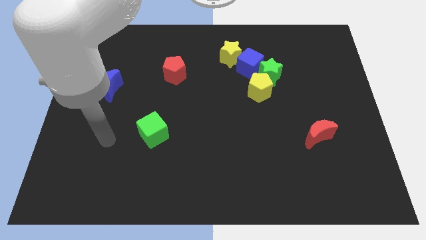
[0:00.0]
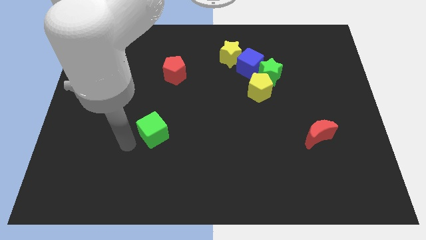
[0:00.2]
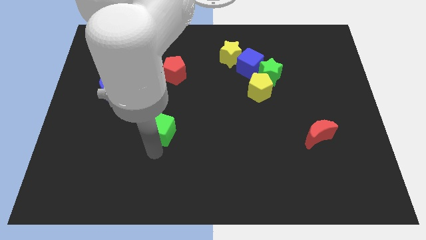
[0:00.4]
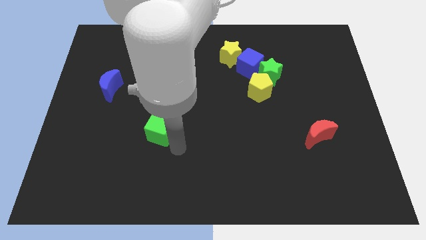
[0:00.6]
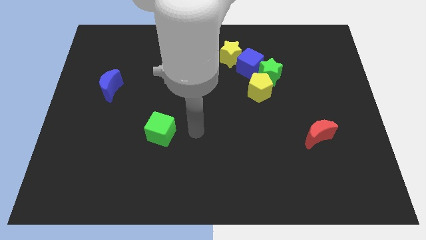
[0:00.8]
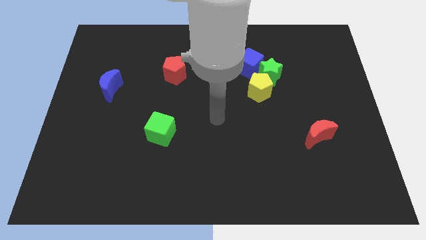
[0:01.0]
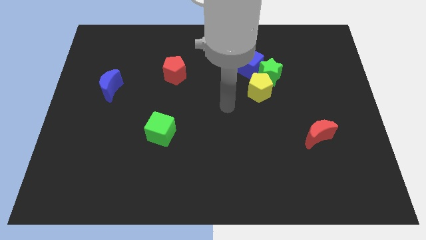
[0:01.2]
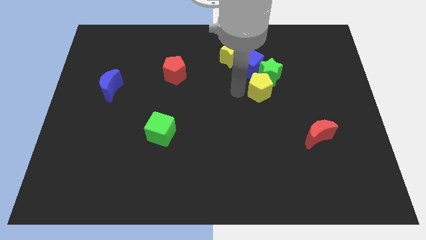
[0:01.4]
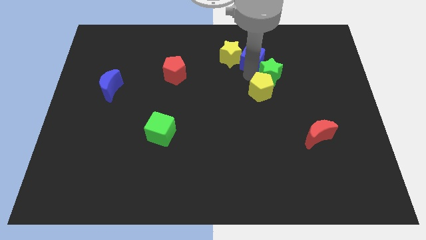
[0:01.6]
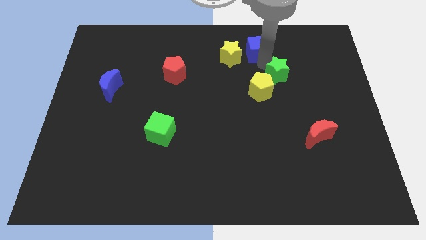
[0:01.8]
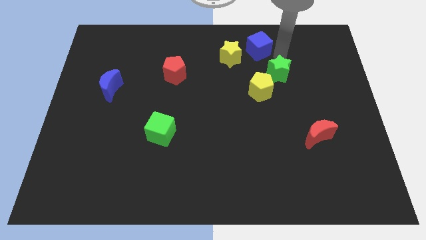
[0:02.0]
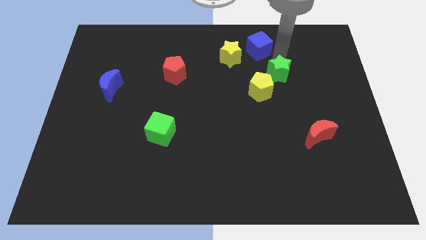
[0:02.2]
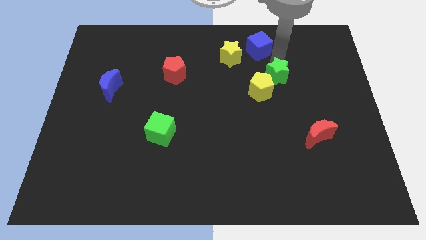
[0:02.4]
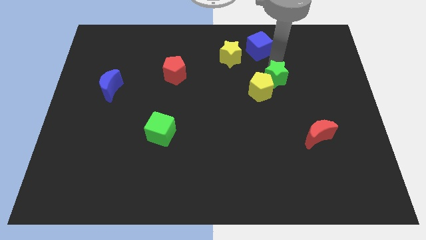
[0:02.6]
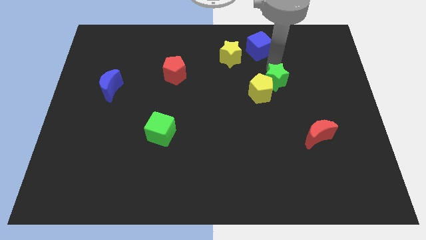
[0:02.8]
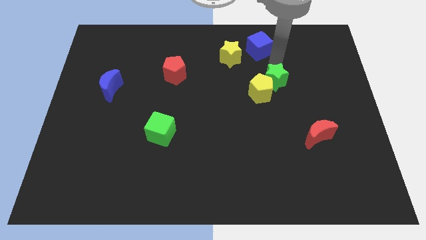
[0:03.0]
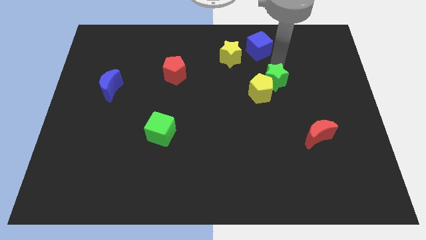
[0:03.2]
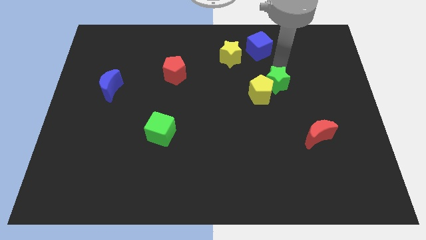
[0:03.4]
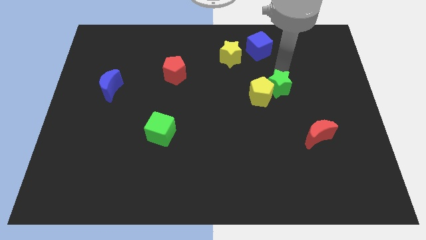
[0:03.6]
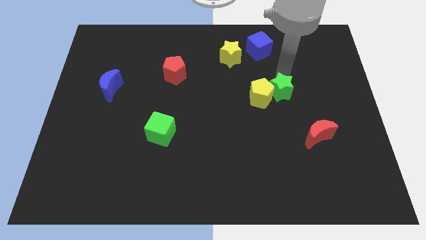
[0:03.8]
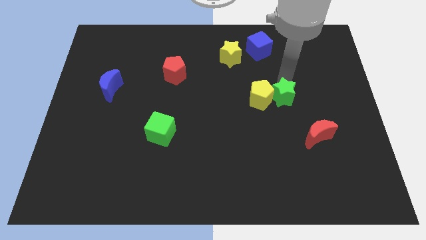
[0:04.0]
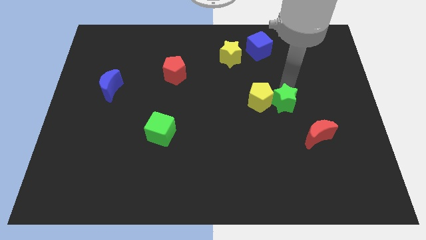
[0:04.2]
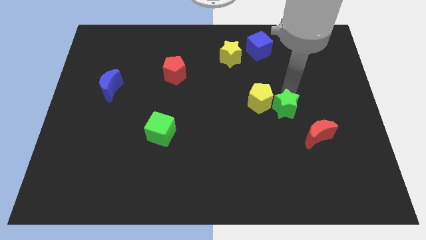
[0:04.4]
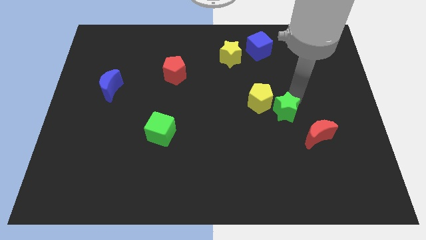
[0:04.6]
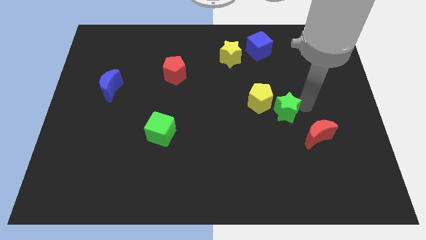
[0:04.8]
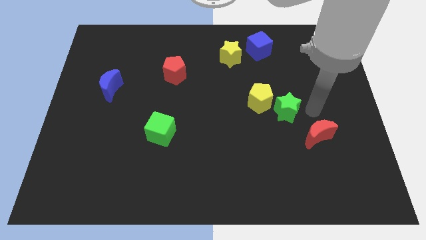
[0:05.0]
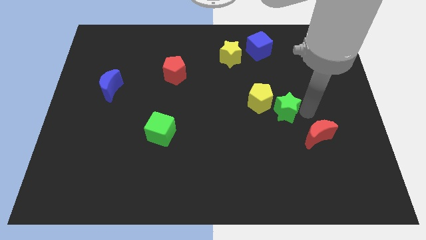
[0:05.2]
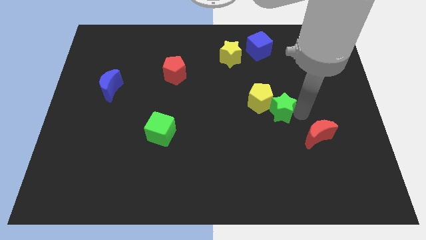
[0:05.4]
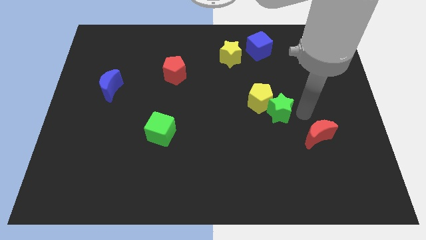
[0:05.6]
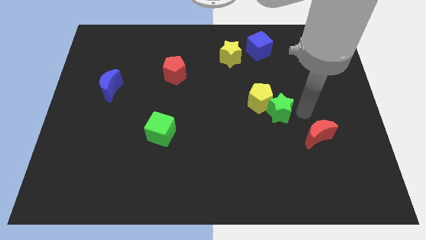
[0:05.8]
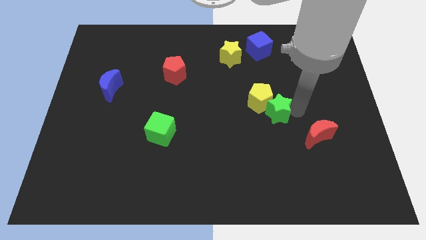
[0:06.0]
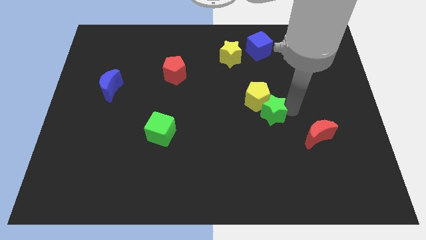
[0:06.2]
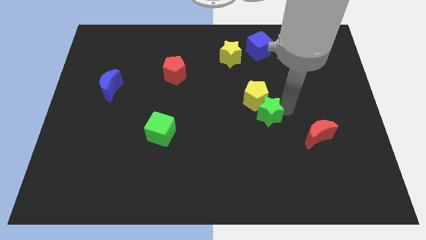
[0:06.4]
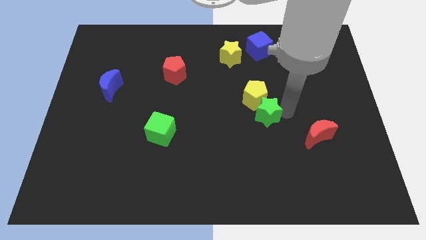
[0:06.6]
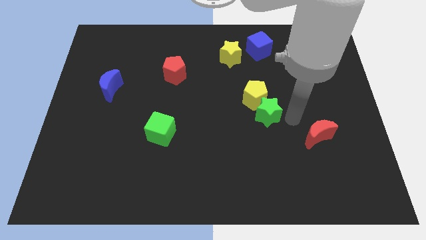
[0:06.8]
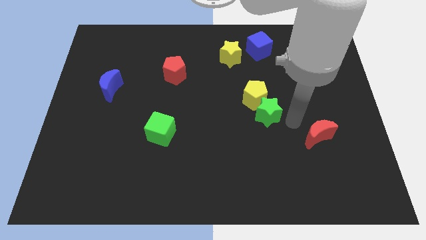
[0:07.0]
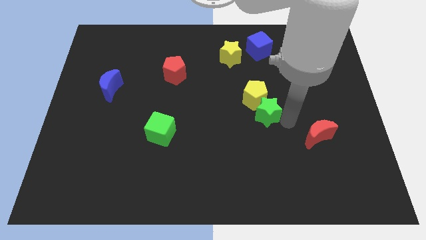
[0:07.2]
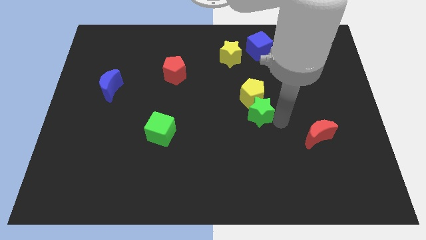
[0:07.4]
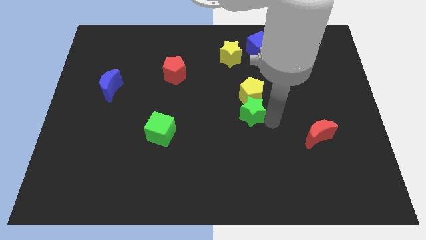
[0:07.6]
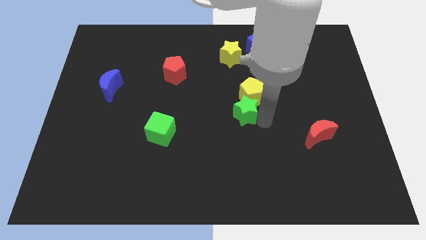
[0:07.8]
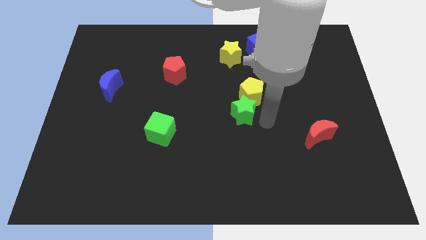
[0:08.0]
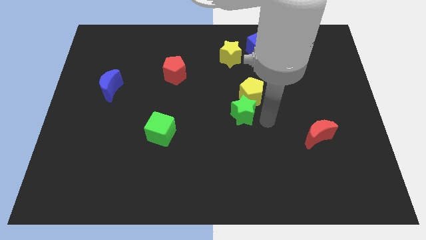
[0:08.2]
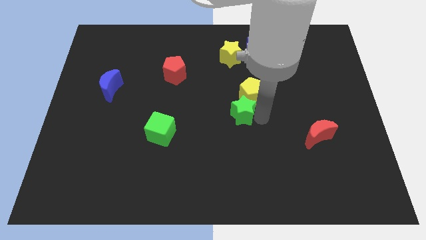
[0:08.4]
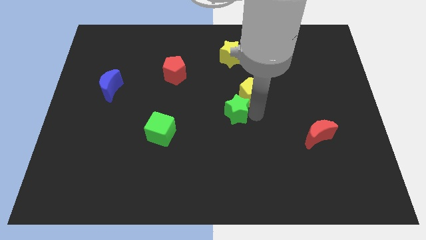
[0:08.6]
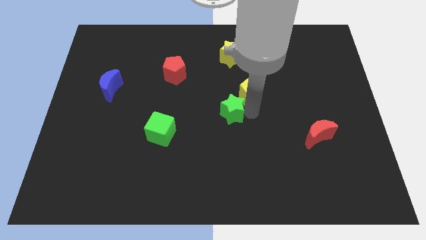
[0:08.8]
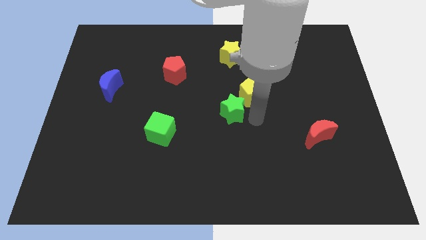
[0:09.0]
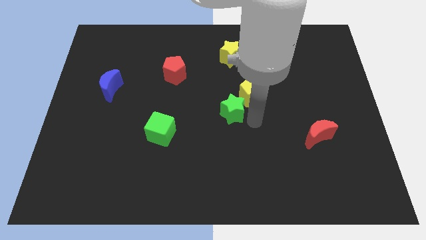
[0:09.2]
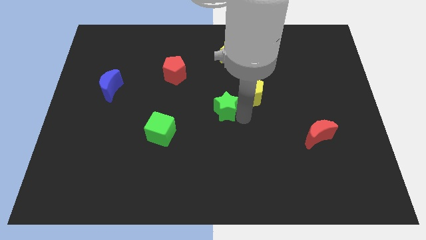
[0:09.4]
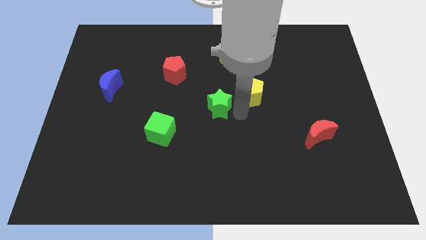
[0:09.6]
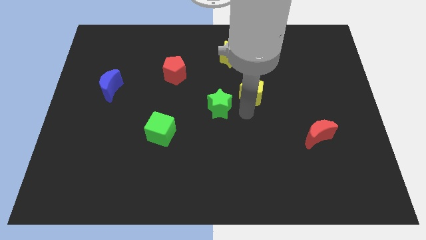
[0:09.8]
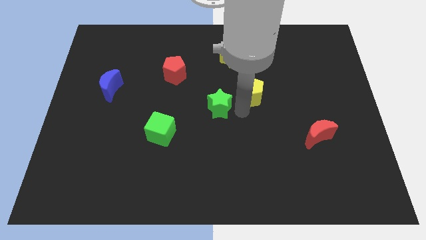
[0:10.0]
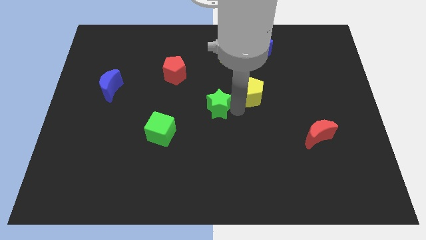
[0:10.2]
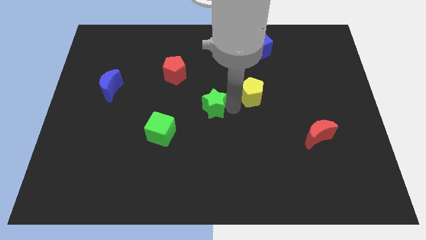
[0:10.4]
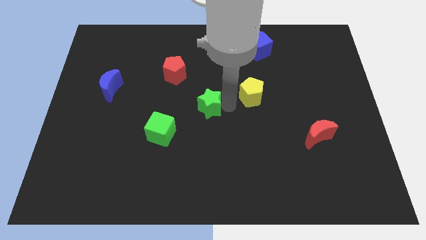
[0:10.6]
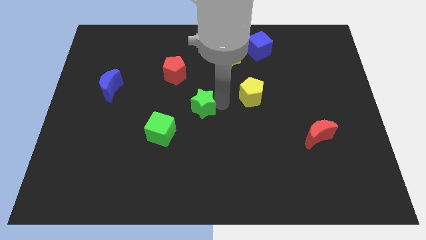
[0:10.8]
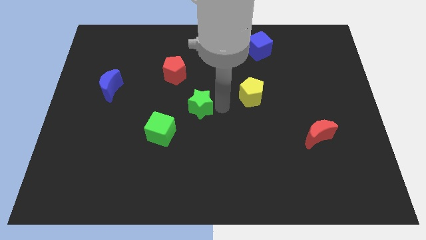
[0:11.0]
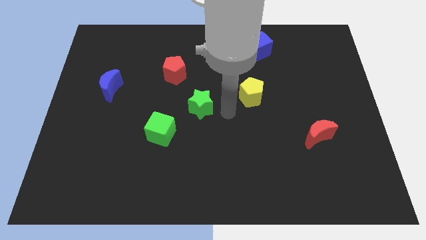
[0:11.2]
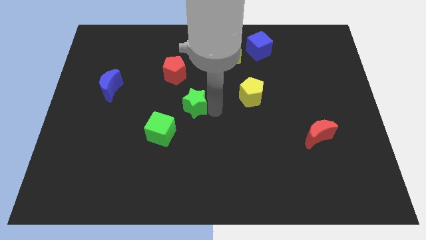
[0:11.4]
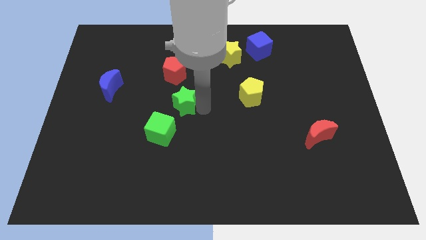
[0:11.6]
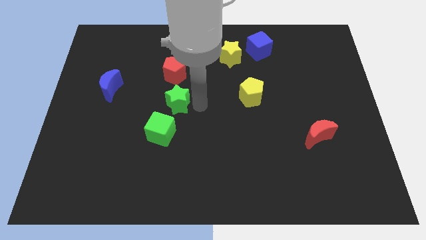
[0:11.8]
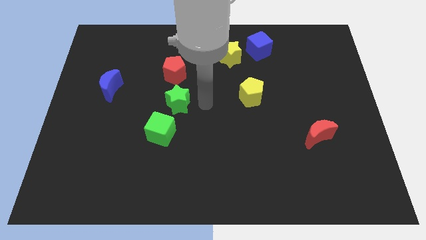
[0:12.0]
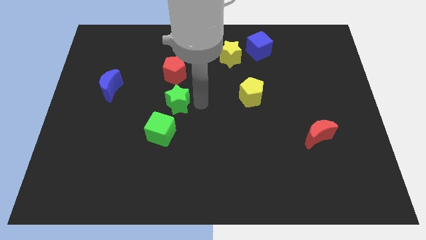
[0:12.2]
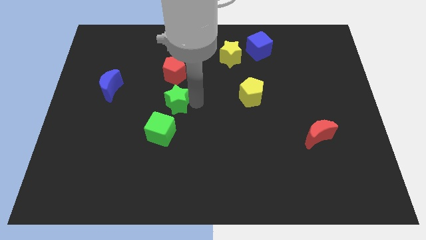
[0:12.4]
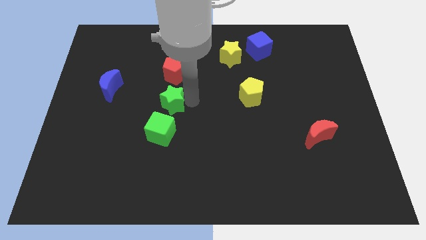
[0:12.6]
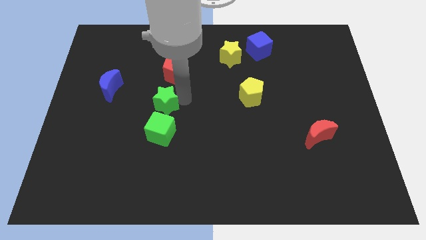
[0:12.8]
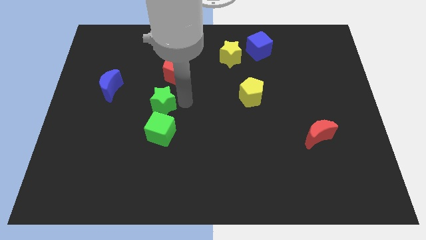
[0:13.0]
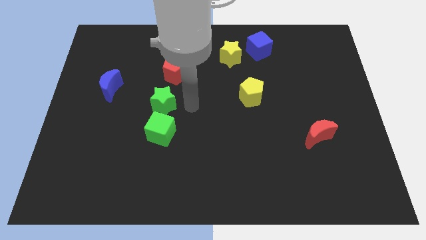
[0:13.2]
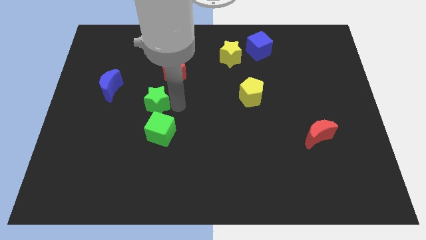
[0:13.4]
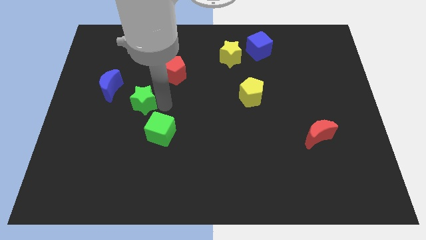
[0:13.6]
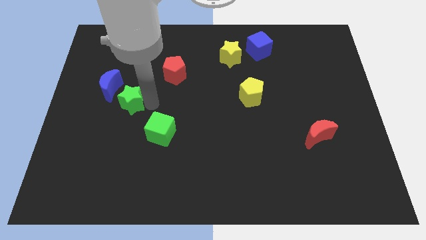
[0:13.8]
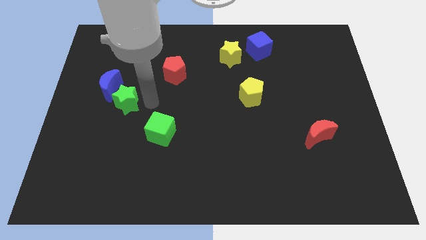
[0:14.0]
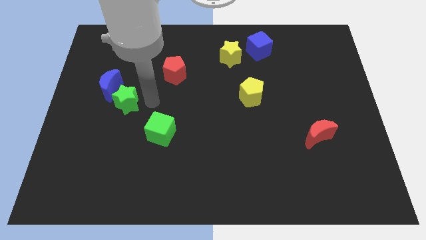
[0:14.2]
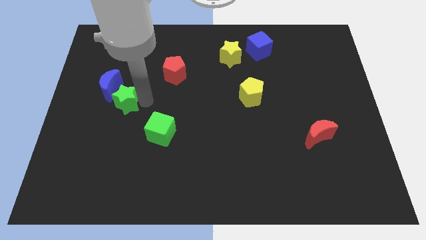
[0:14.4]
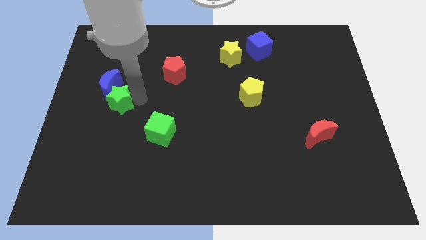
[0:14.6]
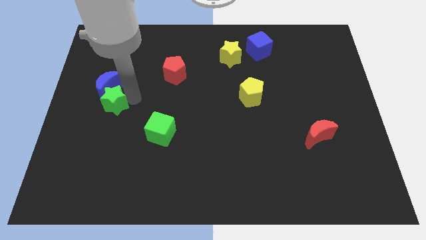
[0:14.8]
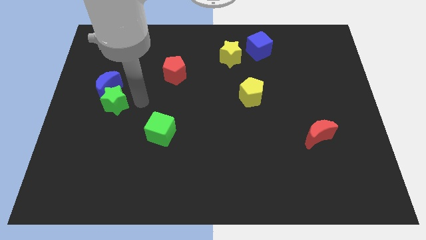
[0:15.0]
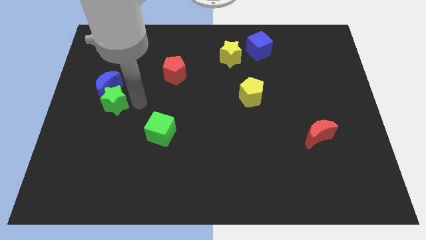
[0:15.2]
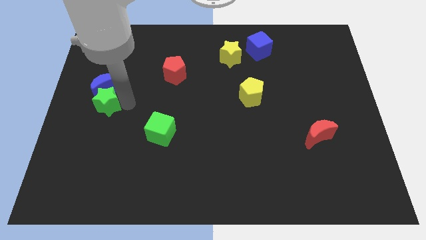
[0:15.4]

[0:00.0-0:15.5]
move the green star to the center left
